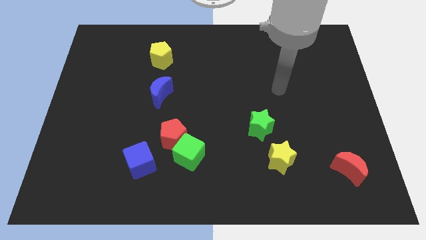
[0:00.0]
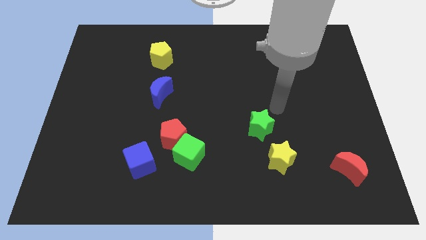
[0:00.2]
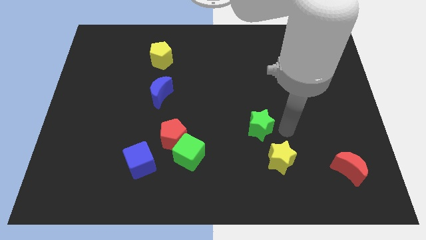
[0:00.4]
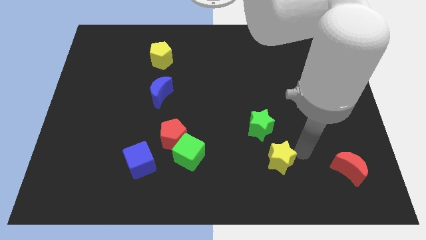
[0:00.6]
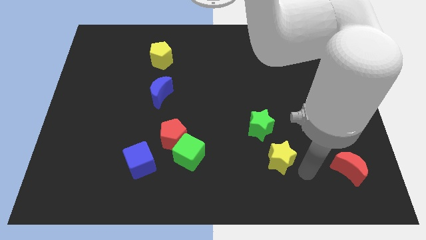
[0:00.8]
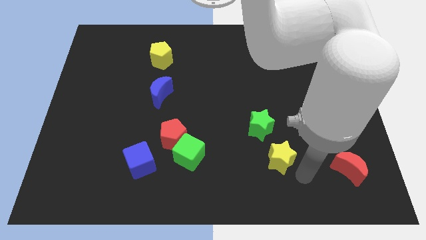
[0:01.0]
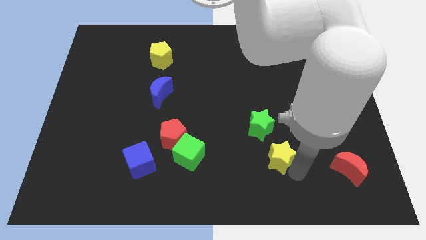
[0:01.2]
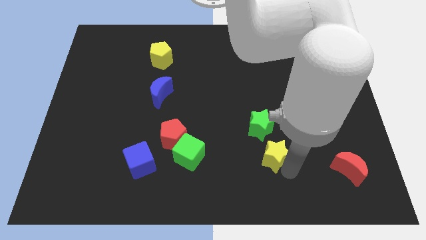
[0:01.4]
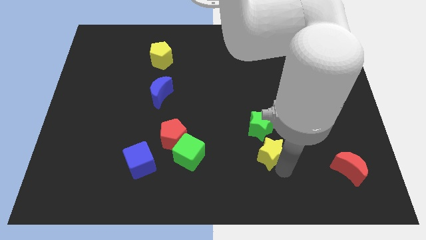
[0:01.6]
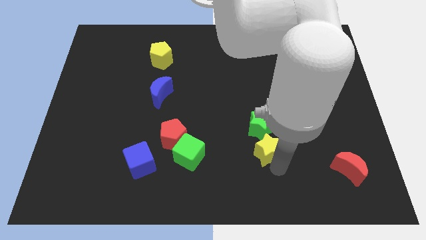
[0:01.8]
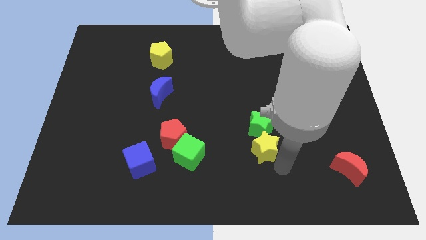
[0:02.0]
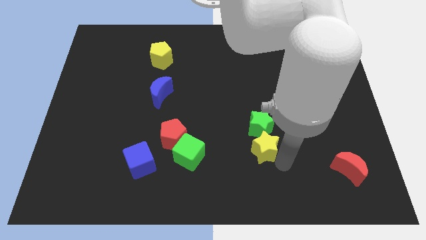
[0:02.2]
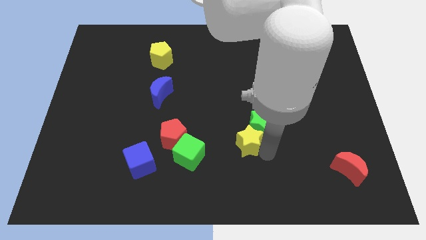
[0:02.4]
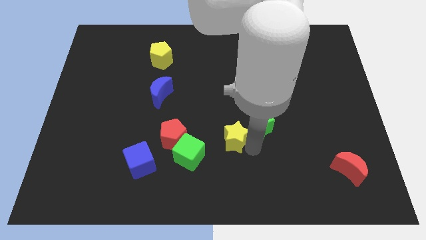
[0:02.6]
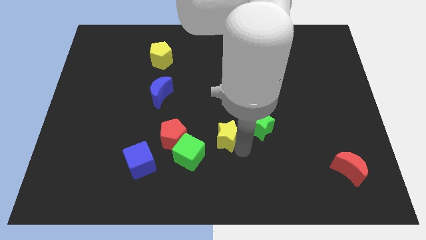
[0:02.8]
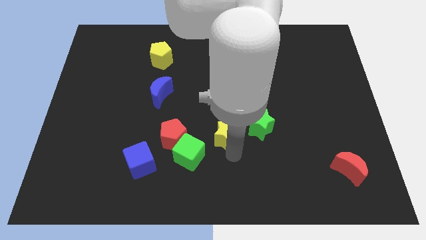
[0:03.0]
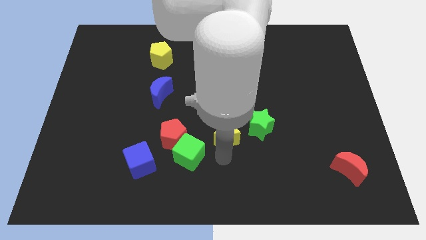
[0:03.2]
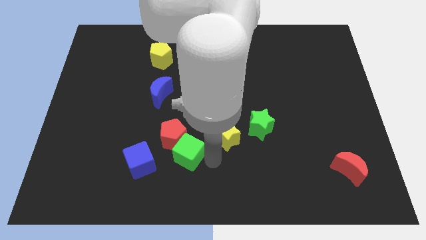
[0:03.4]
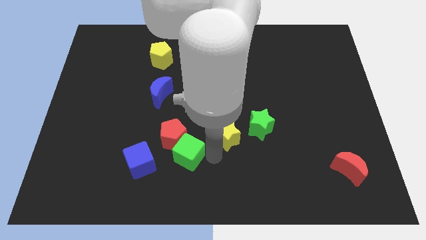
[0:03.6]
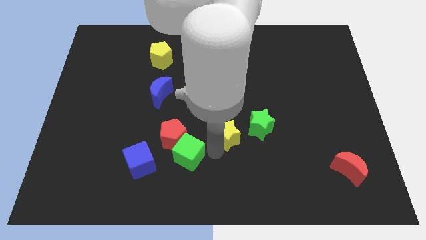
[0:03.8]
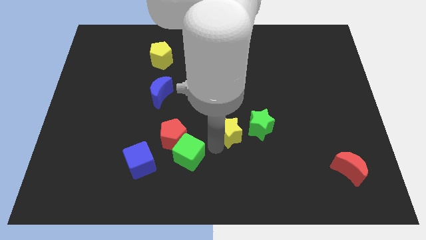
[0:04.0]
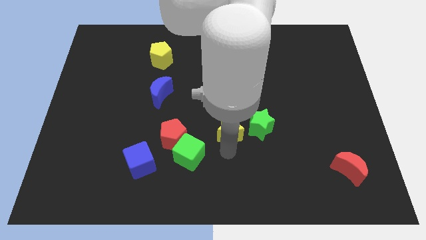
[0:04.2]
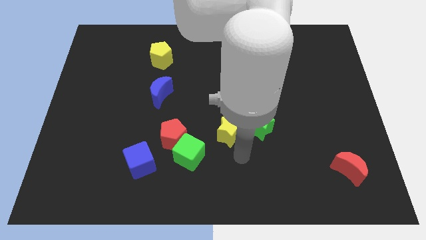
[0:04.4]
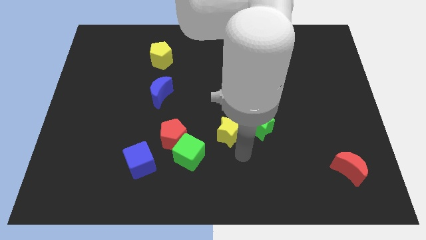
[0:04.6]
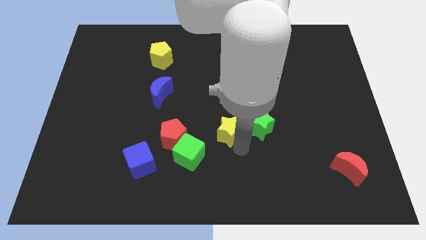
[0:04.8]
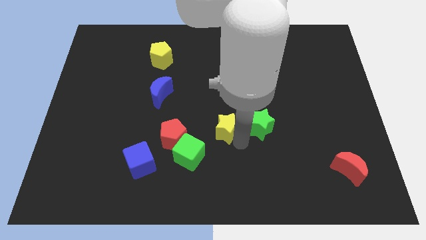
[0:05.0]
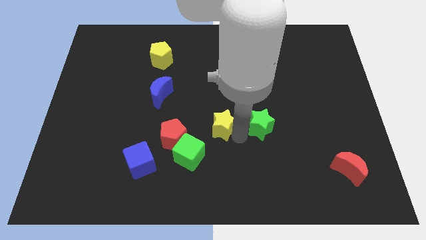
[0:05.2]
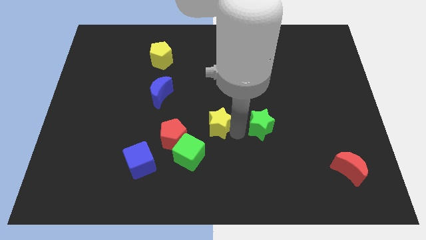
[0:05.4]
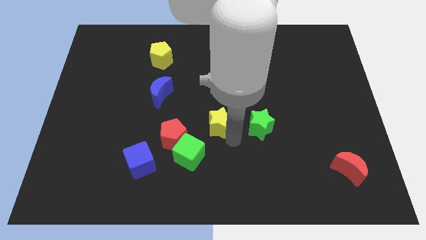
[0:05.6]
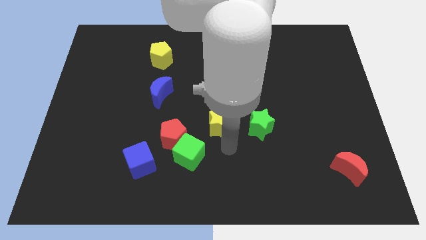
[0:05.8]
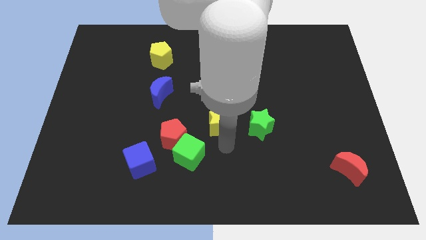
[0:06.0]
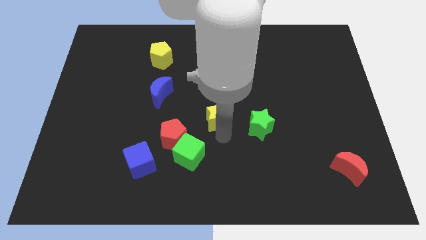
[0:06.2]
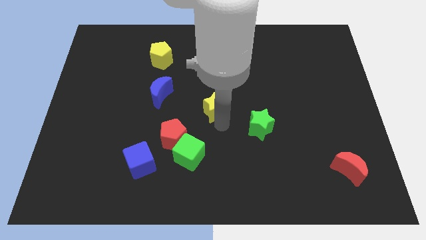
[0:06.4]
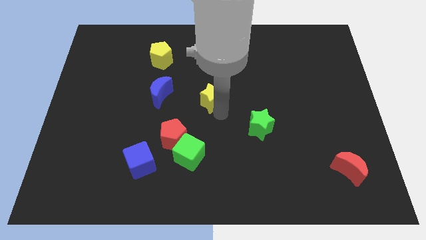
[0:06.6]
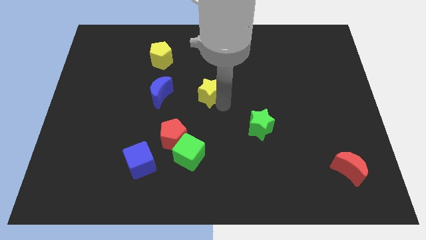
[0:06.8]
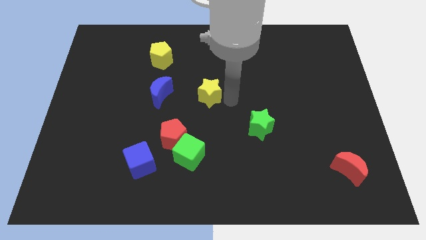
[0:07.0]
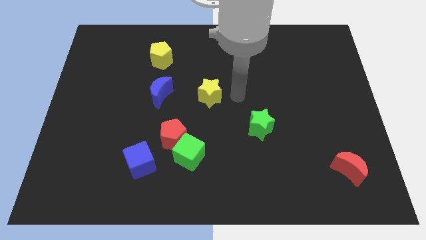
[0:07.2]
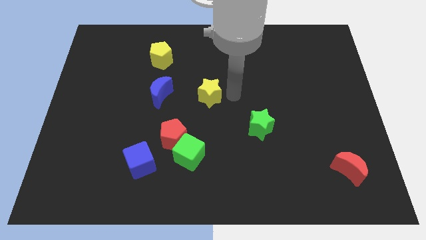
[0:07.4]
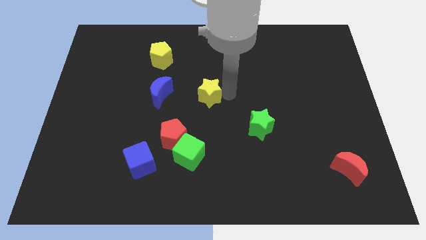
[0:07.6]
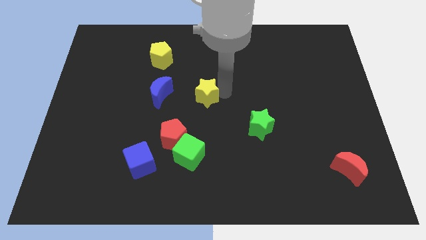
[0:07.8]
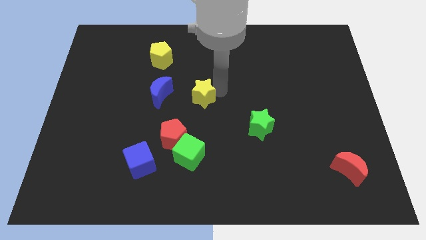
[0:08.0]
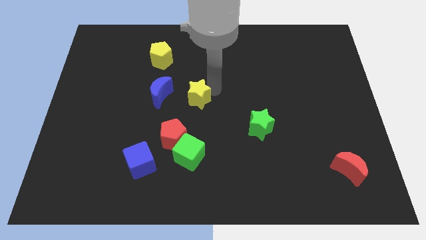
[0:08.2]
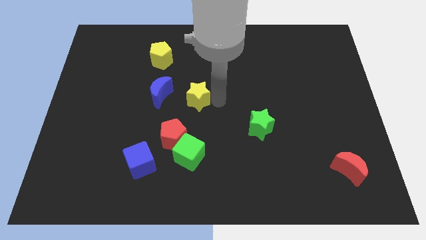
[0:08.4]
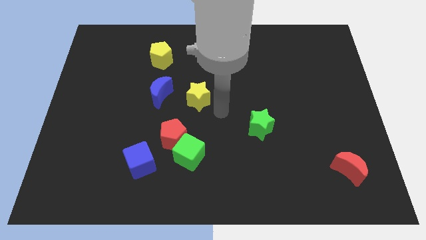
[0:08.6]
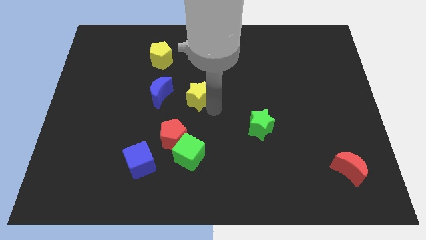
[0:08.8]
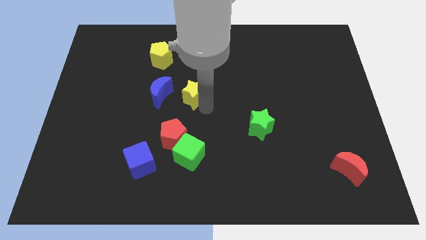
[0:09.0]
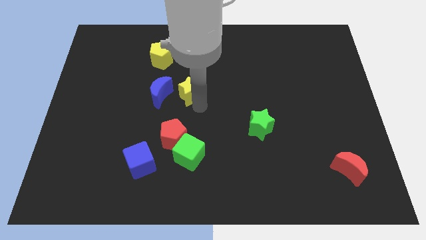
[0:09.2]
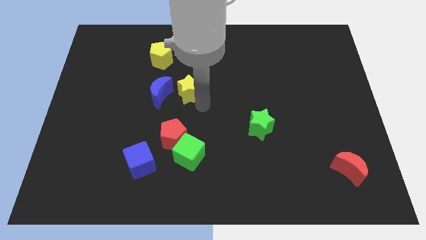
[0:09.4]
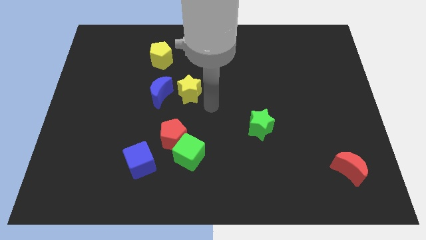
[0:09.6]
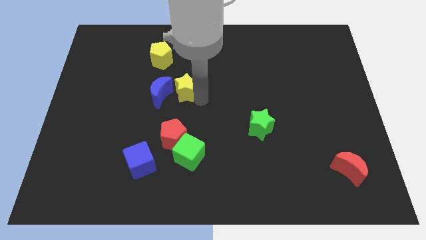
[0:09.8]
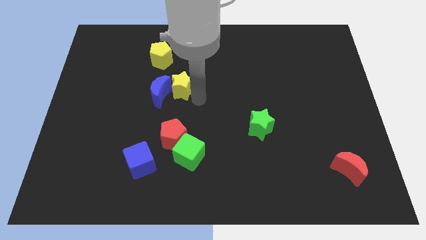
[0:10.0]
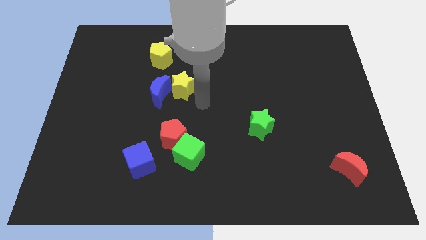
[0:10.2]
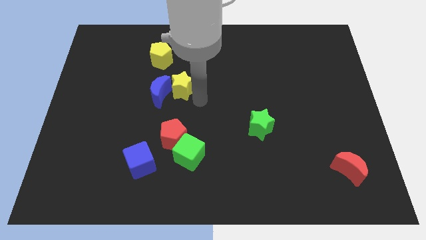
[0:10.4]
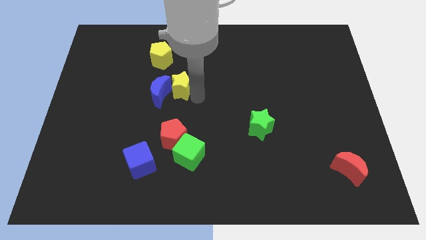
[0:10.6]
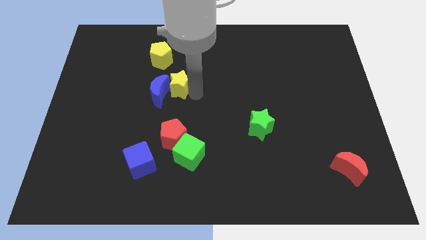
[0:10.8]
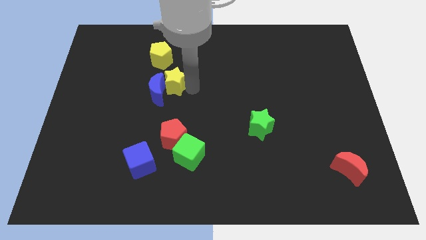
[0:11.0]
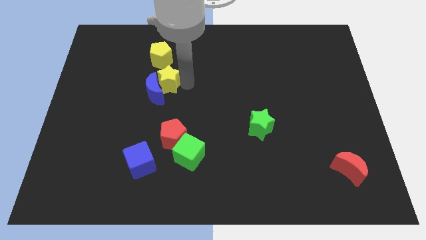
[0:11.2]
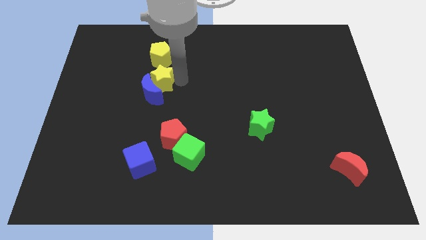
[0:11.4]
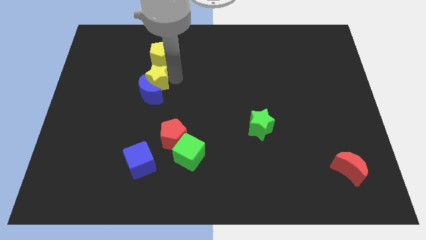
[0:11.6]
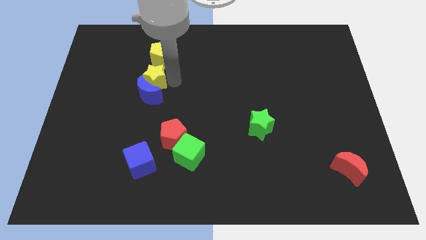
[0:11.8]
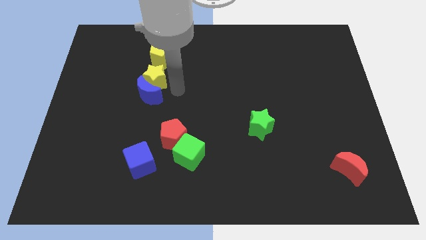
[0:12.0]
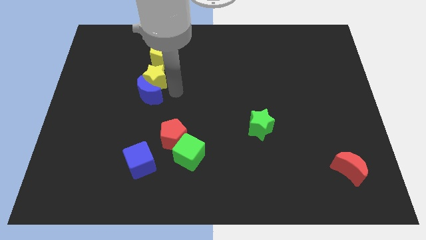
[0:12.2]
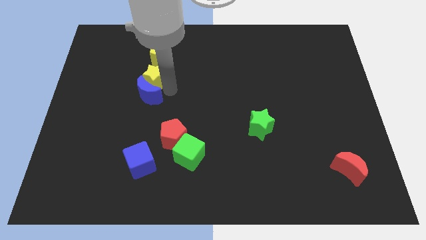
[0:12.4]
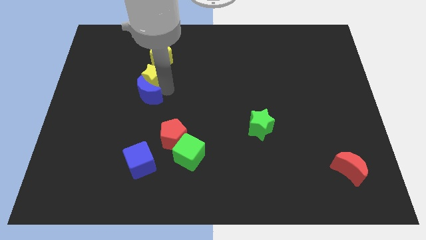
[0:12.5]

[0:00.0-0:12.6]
put the yellow star diagonally down and to the left of the yellow pentagon

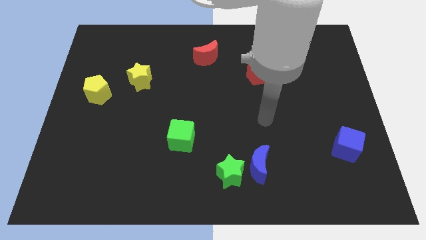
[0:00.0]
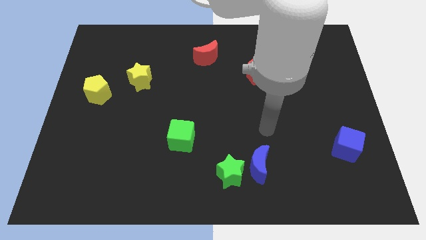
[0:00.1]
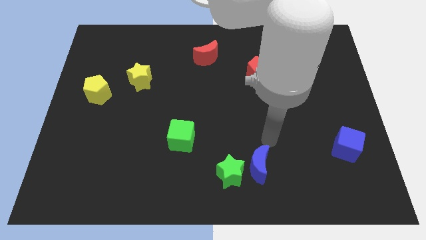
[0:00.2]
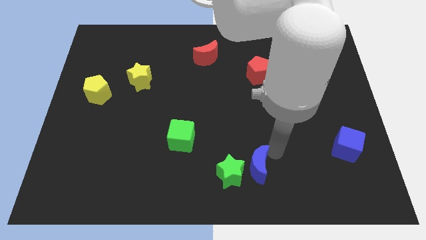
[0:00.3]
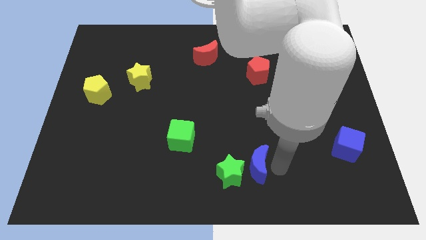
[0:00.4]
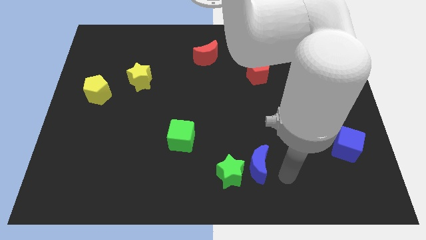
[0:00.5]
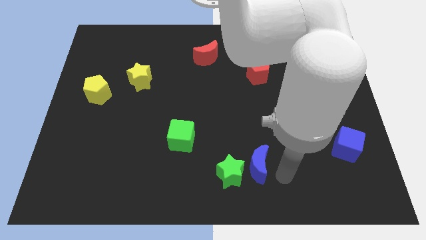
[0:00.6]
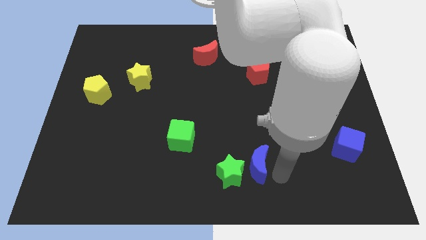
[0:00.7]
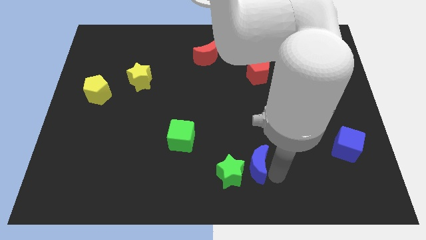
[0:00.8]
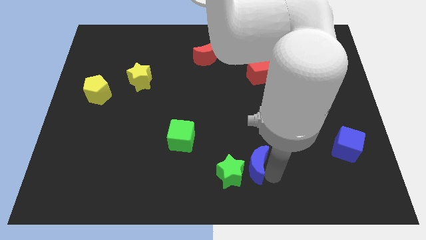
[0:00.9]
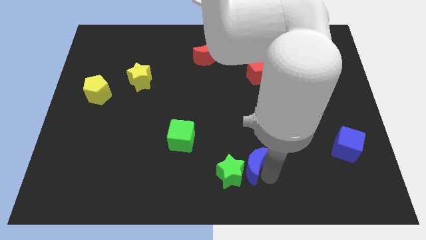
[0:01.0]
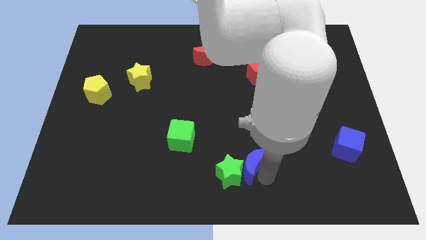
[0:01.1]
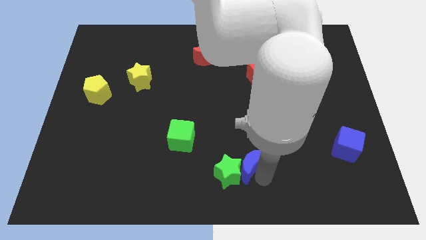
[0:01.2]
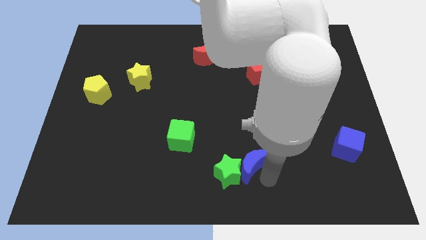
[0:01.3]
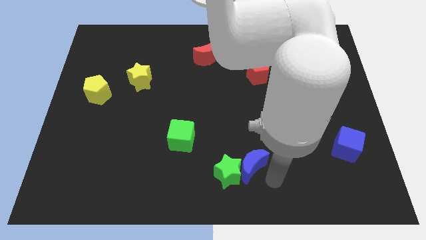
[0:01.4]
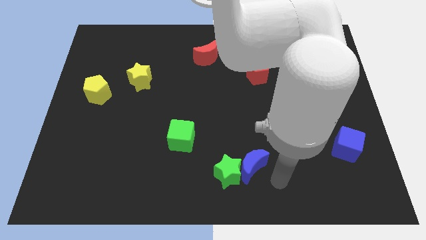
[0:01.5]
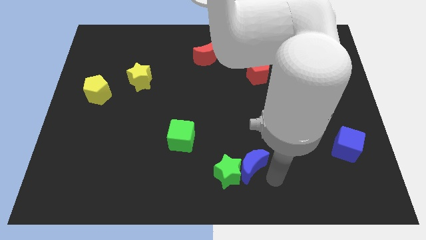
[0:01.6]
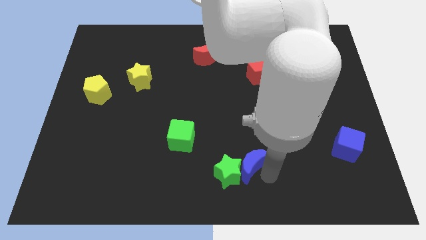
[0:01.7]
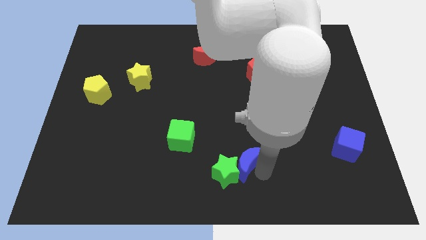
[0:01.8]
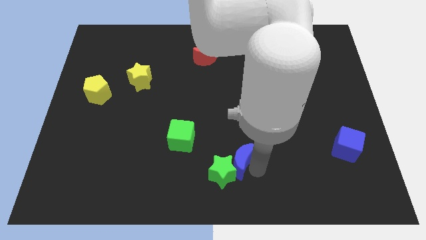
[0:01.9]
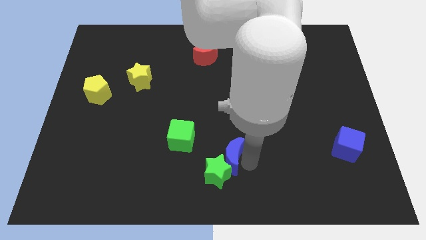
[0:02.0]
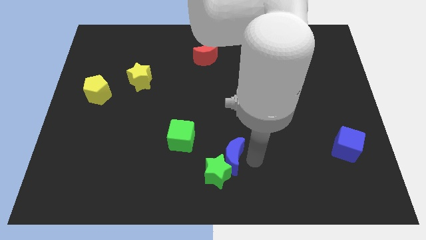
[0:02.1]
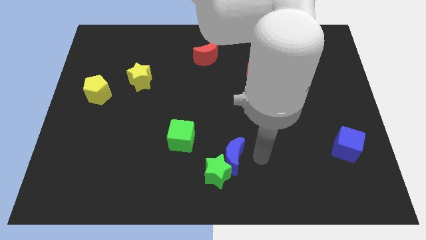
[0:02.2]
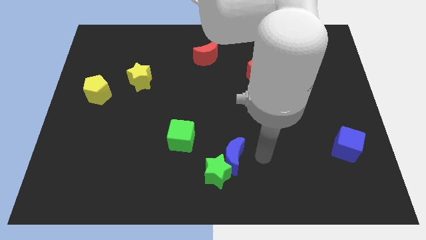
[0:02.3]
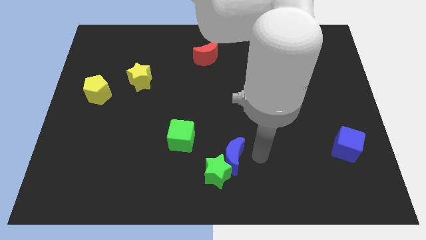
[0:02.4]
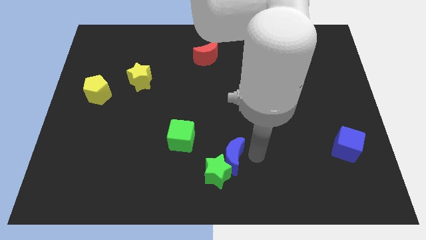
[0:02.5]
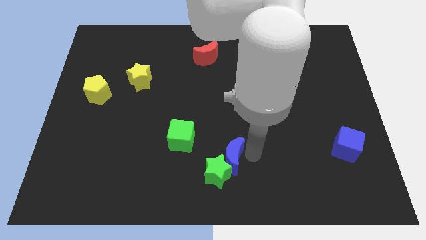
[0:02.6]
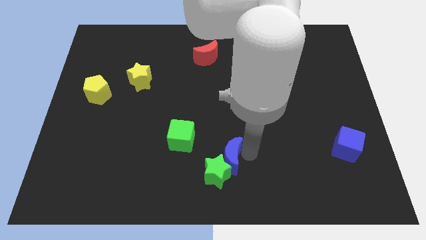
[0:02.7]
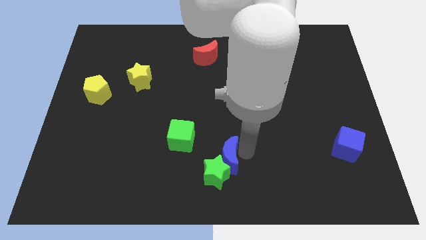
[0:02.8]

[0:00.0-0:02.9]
slide the blue moon diagonally down and to the right of the green cube
